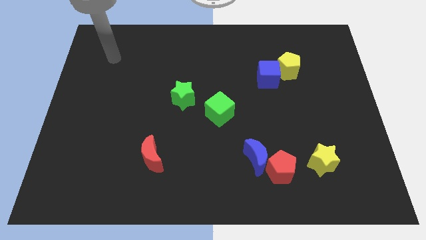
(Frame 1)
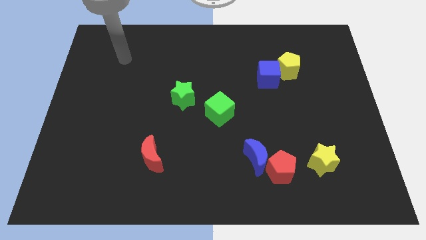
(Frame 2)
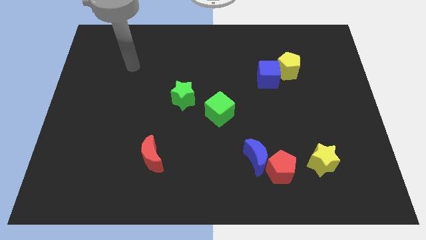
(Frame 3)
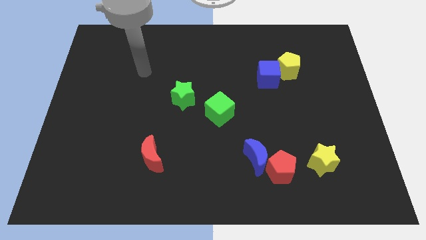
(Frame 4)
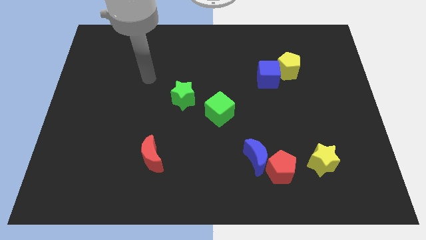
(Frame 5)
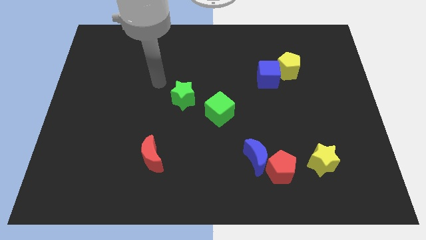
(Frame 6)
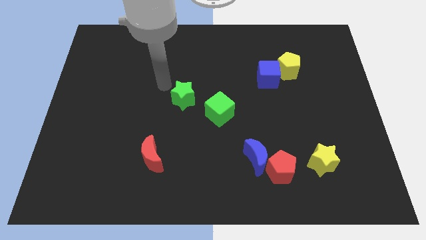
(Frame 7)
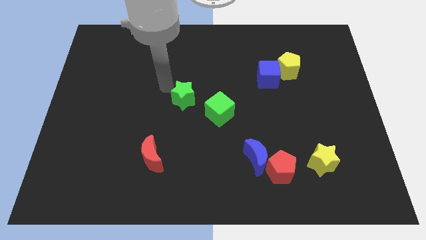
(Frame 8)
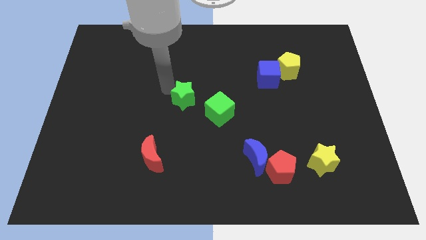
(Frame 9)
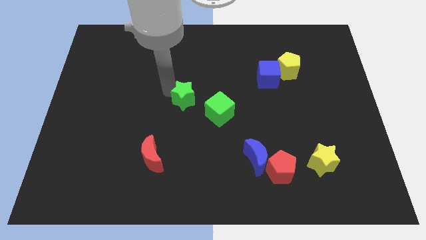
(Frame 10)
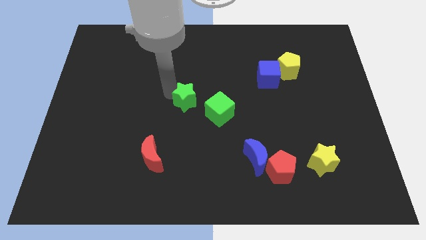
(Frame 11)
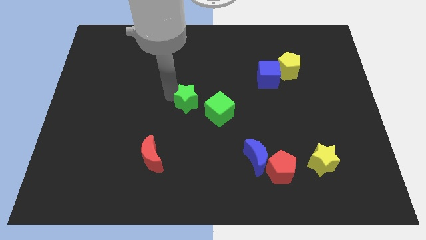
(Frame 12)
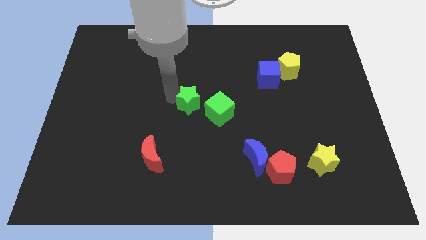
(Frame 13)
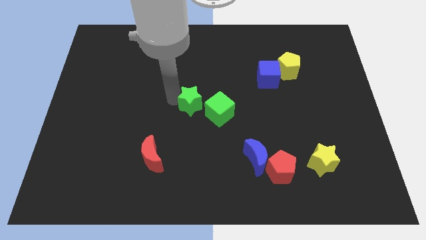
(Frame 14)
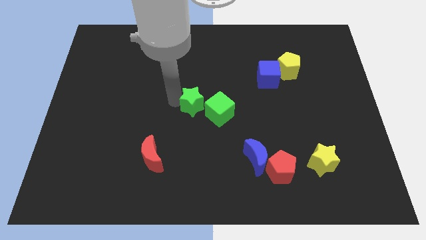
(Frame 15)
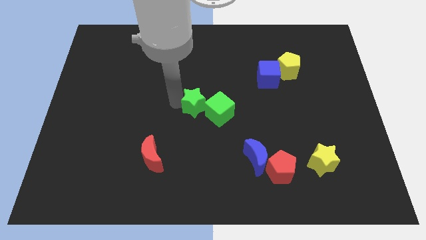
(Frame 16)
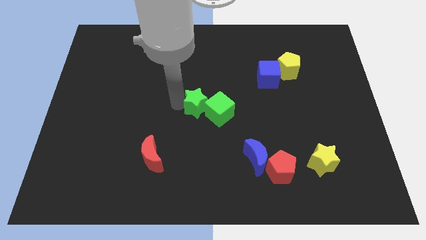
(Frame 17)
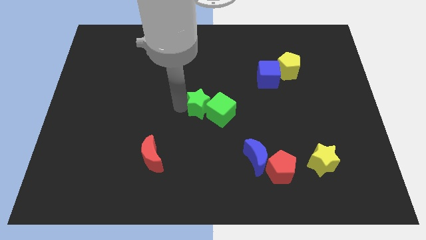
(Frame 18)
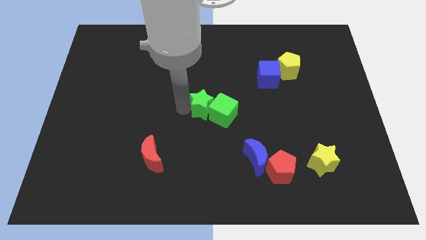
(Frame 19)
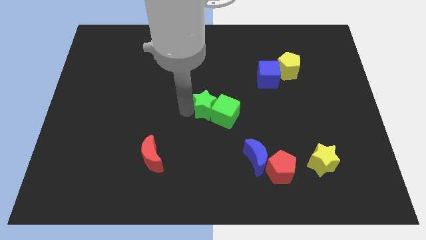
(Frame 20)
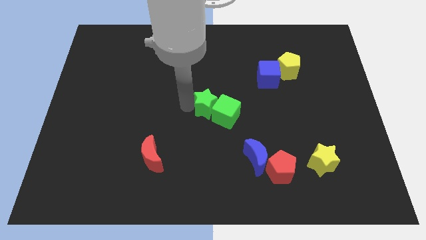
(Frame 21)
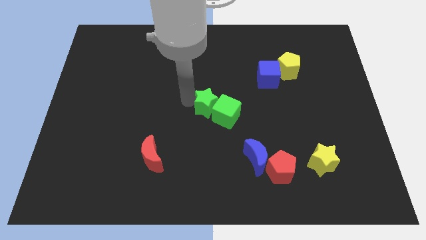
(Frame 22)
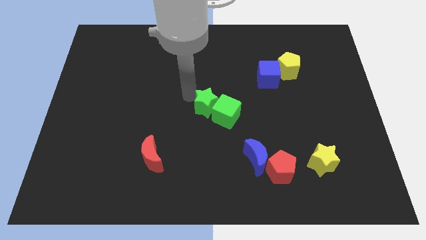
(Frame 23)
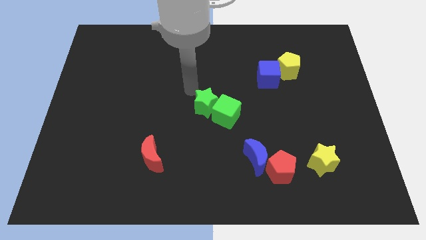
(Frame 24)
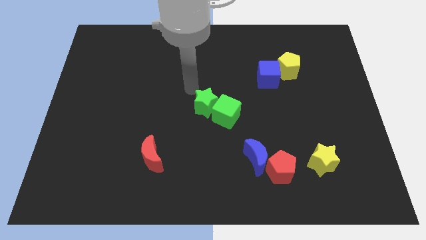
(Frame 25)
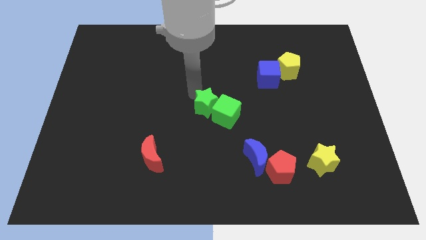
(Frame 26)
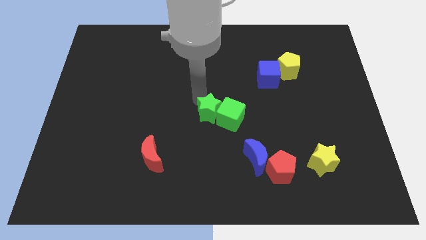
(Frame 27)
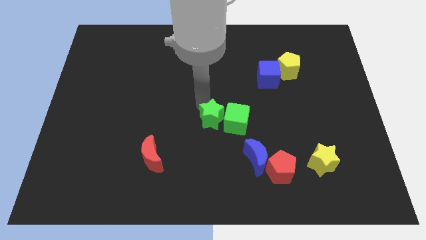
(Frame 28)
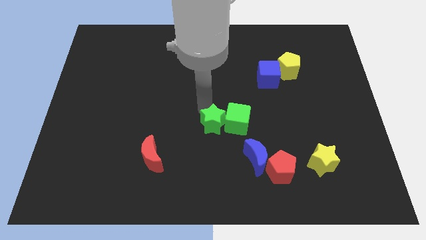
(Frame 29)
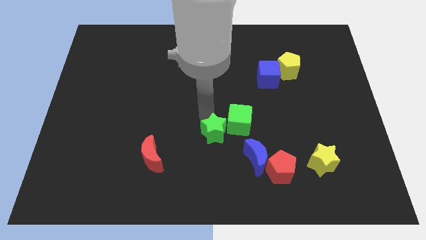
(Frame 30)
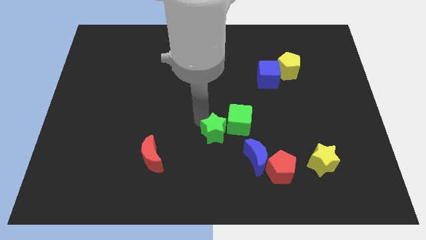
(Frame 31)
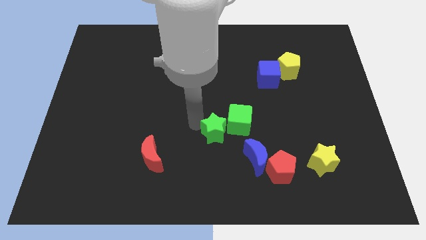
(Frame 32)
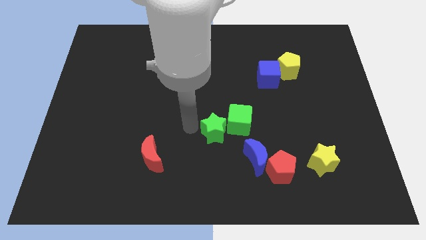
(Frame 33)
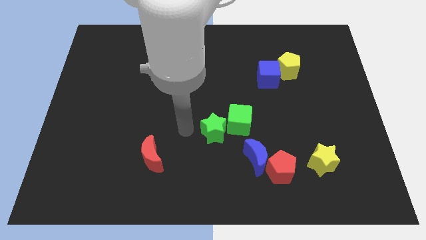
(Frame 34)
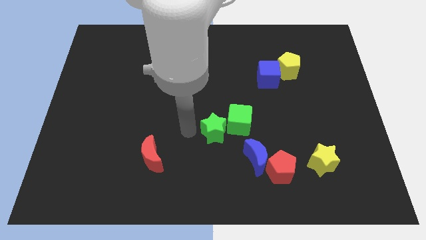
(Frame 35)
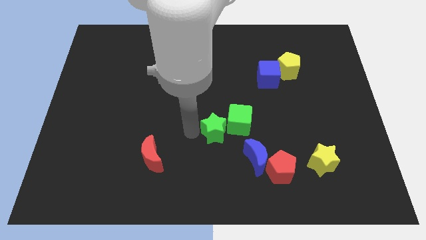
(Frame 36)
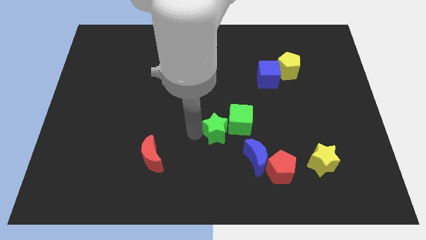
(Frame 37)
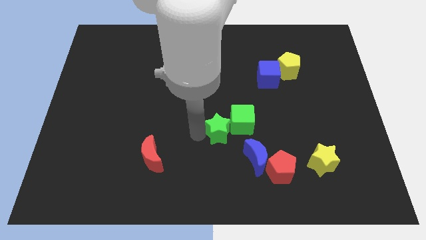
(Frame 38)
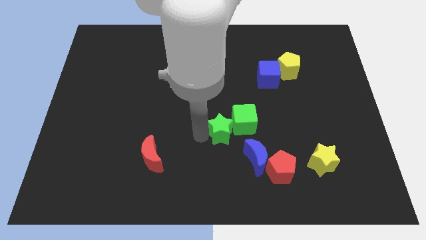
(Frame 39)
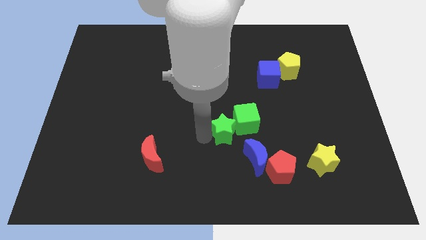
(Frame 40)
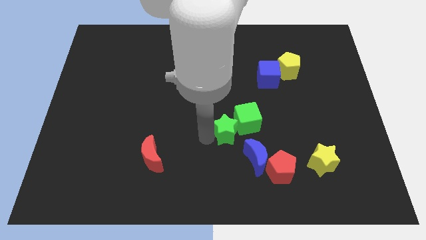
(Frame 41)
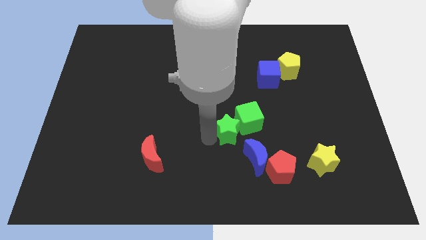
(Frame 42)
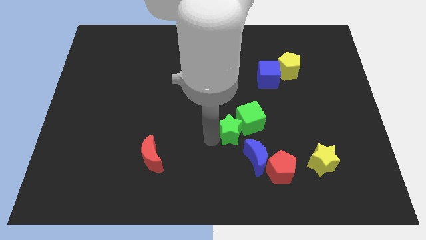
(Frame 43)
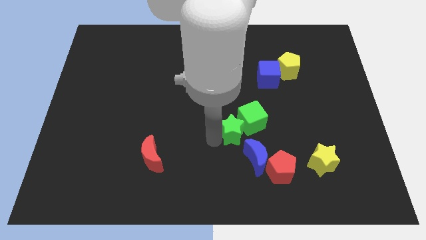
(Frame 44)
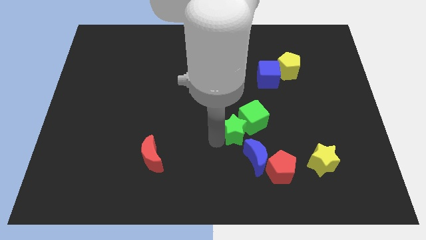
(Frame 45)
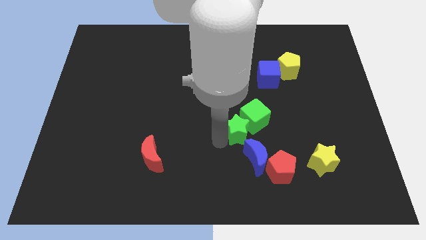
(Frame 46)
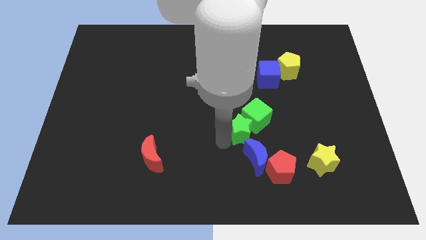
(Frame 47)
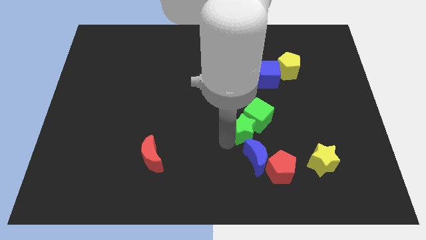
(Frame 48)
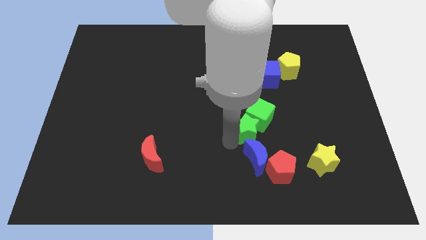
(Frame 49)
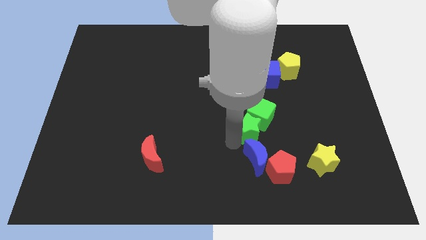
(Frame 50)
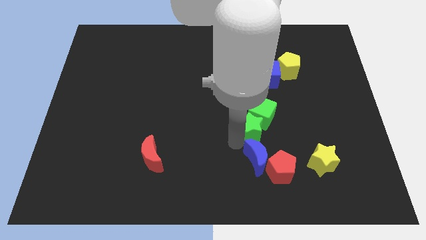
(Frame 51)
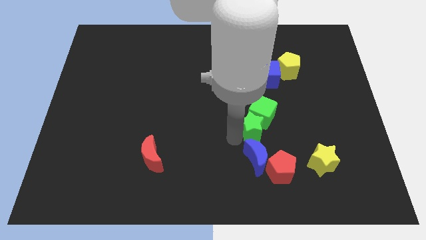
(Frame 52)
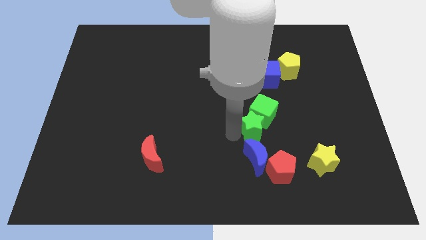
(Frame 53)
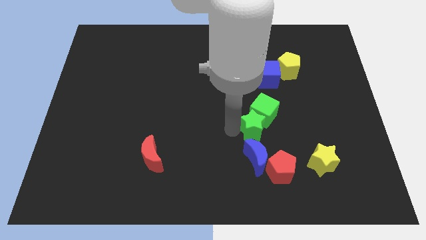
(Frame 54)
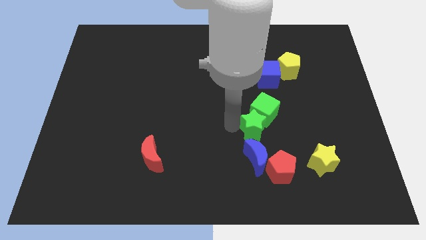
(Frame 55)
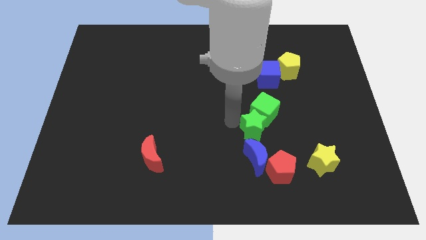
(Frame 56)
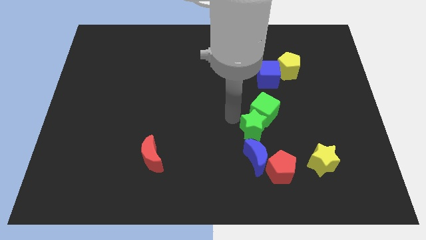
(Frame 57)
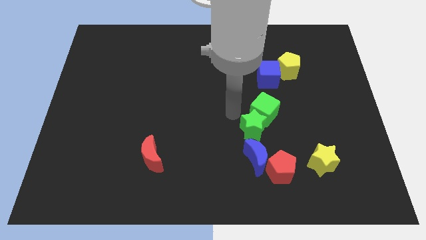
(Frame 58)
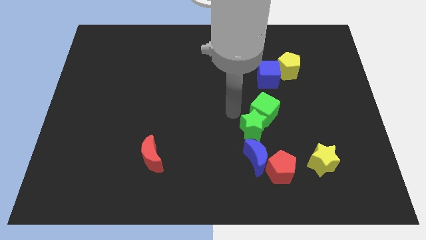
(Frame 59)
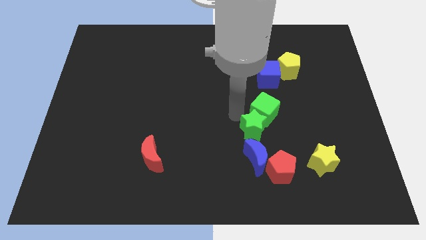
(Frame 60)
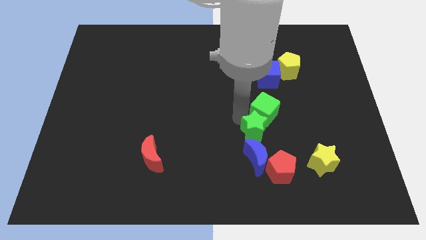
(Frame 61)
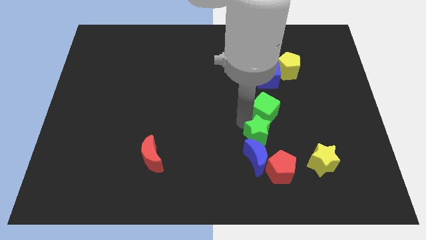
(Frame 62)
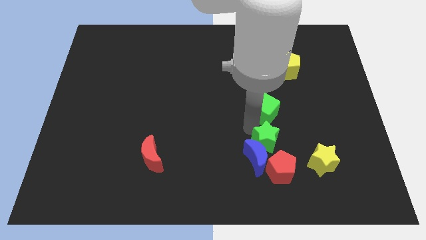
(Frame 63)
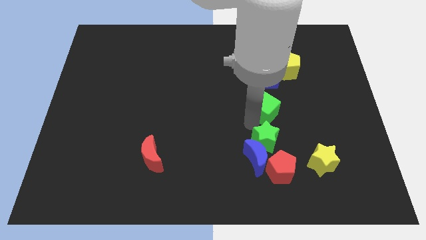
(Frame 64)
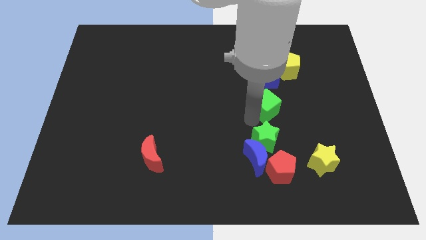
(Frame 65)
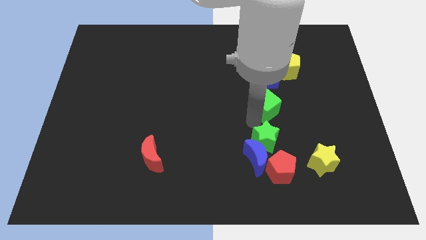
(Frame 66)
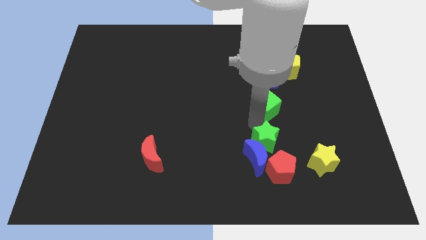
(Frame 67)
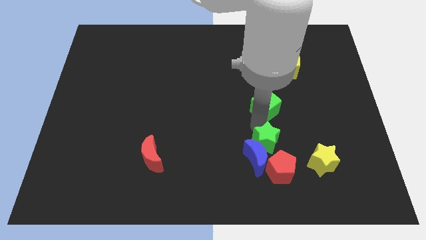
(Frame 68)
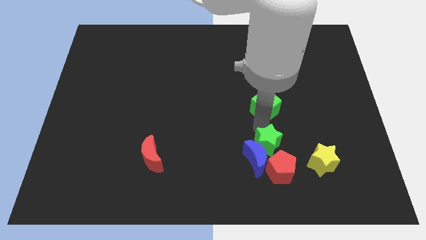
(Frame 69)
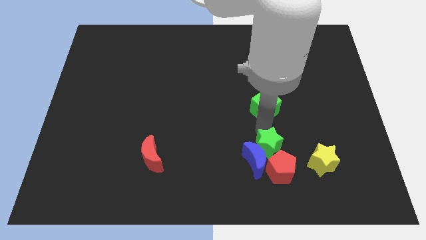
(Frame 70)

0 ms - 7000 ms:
push the green star to the red pentagon
